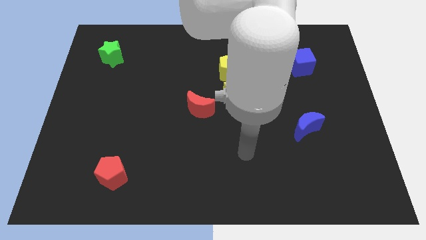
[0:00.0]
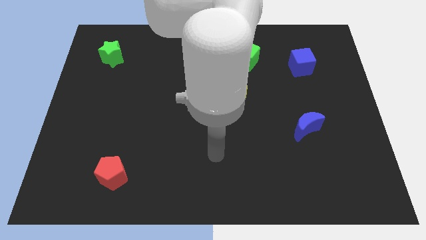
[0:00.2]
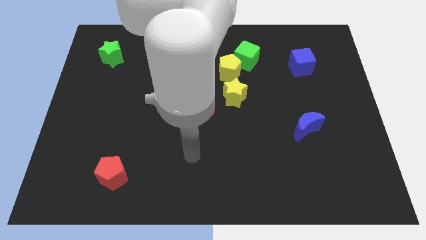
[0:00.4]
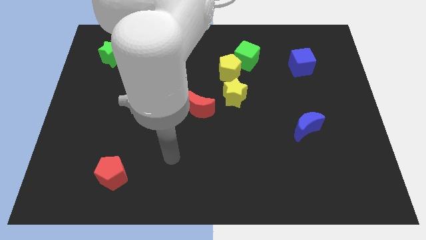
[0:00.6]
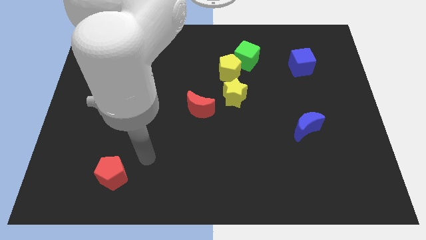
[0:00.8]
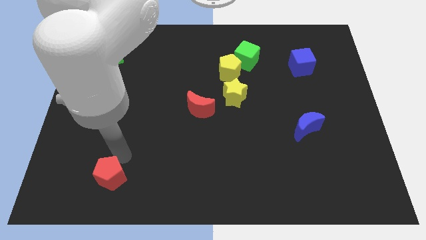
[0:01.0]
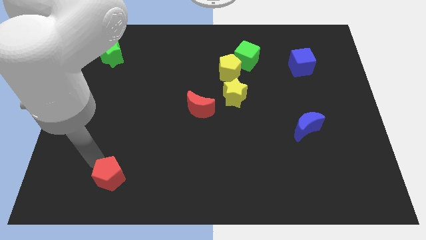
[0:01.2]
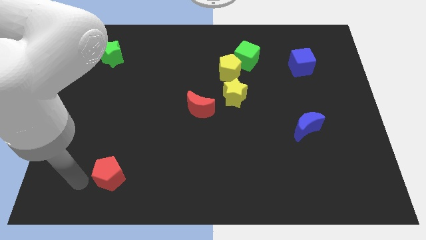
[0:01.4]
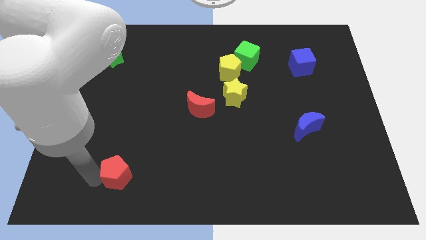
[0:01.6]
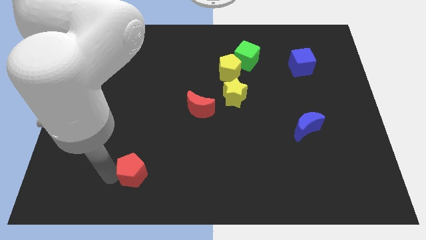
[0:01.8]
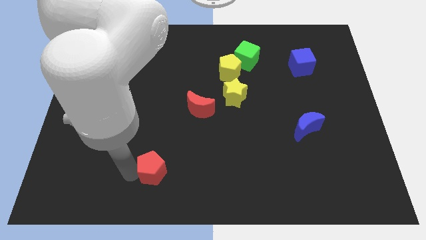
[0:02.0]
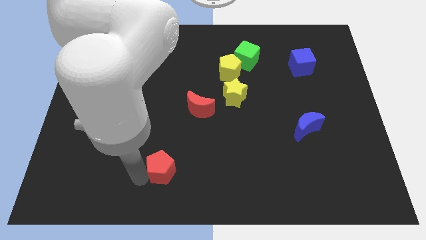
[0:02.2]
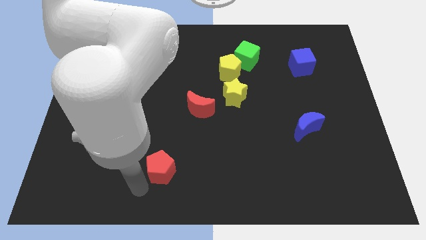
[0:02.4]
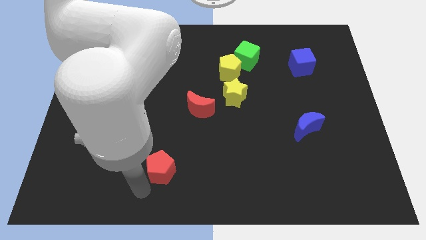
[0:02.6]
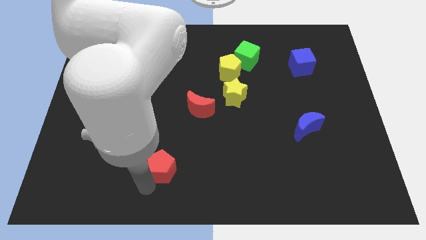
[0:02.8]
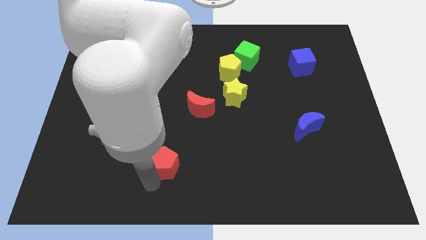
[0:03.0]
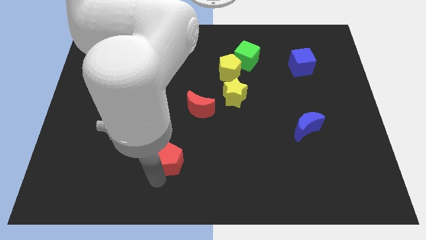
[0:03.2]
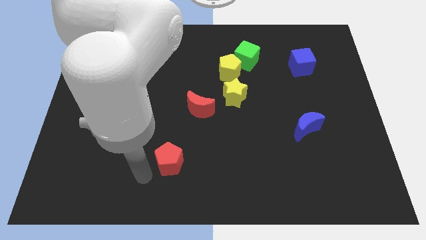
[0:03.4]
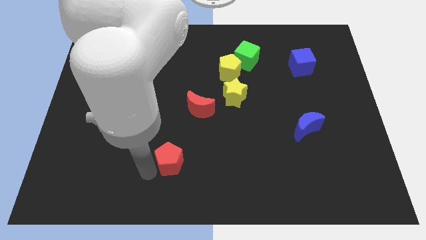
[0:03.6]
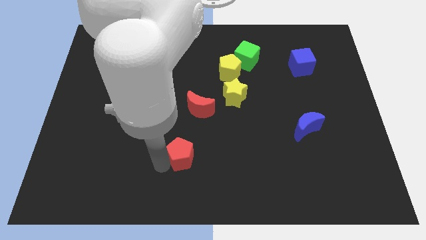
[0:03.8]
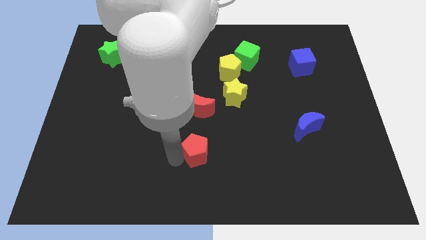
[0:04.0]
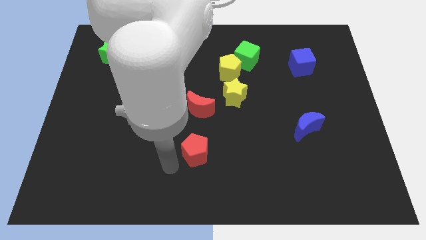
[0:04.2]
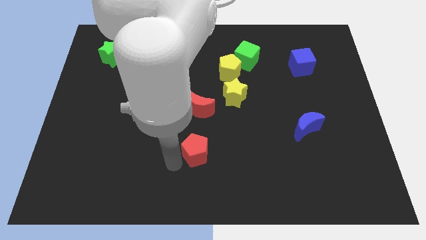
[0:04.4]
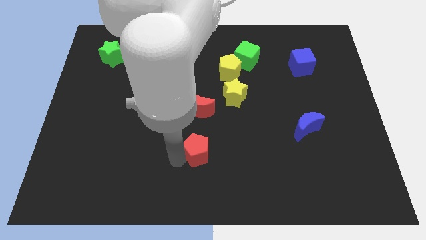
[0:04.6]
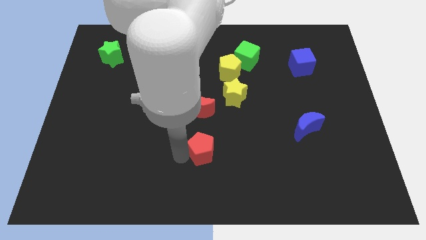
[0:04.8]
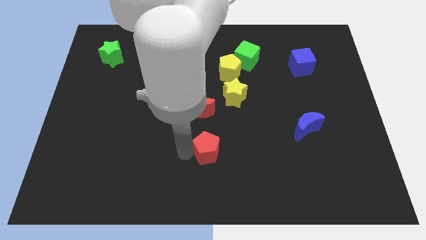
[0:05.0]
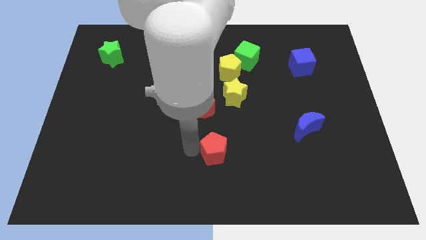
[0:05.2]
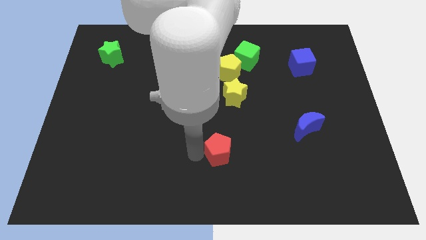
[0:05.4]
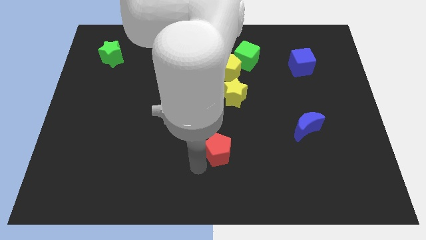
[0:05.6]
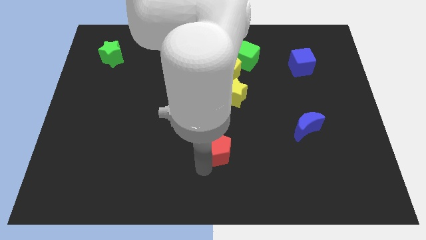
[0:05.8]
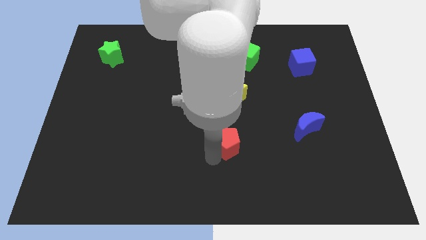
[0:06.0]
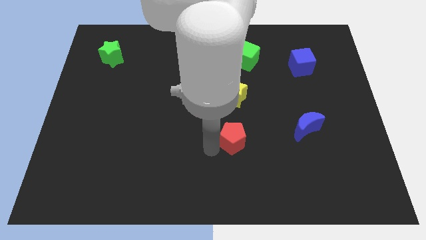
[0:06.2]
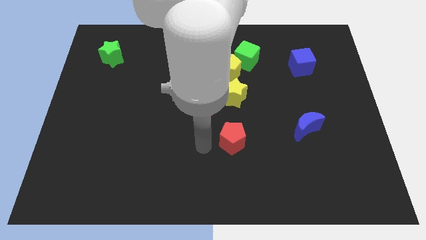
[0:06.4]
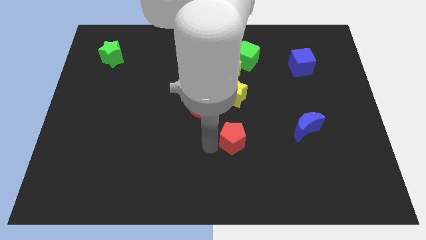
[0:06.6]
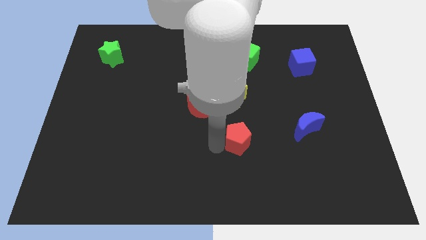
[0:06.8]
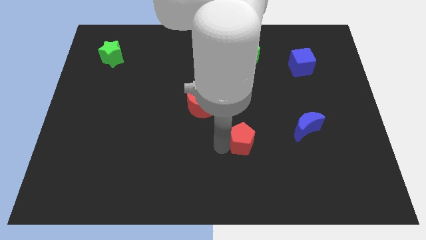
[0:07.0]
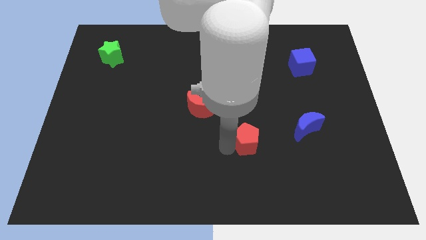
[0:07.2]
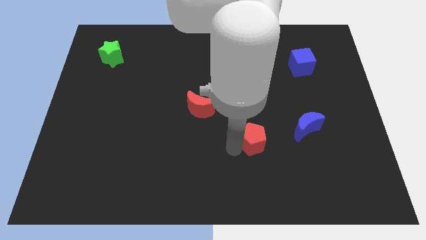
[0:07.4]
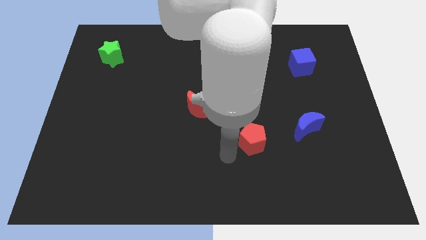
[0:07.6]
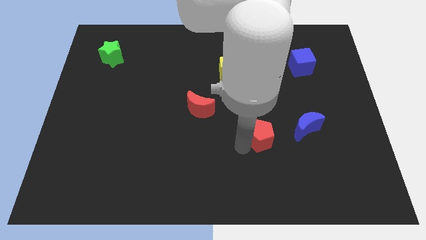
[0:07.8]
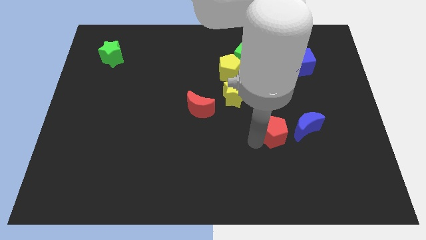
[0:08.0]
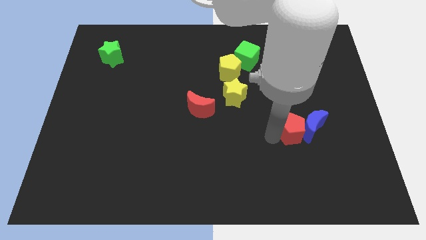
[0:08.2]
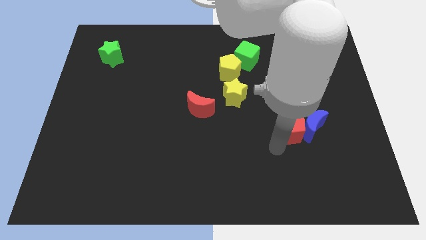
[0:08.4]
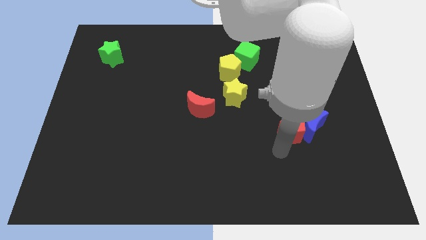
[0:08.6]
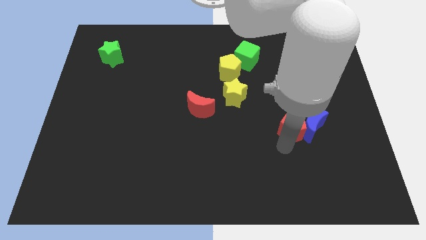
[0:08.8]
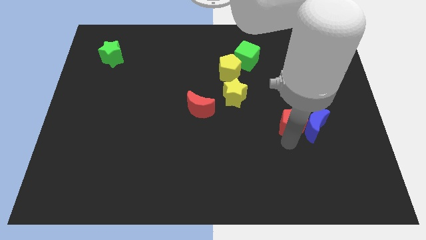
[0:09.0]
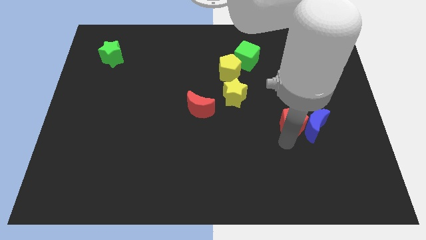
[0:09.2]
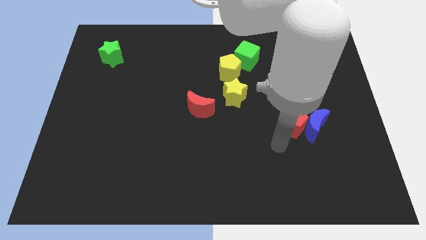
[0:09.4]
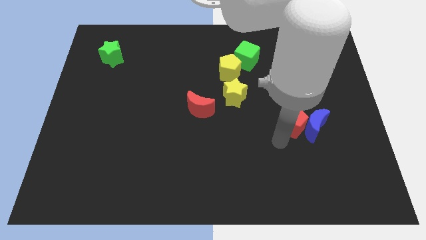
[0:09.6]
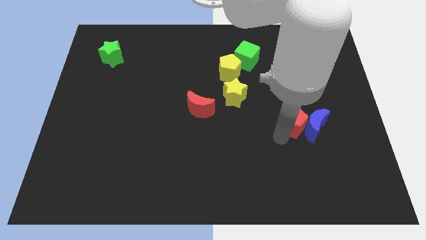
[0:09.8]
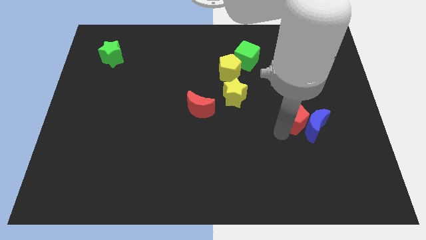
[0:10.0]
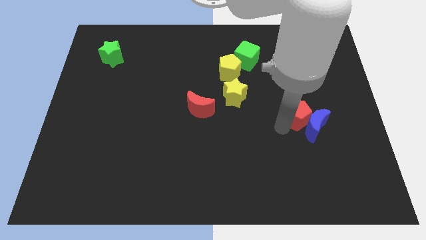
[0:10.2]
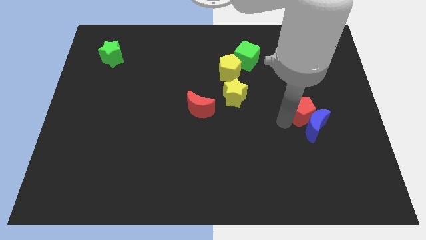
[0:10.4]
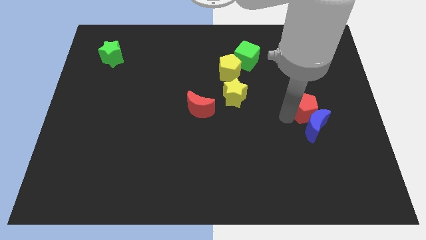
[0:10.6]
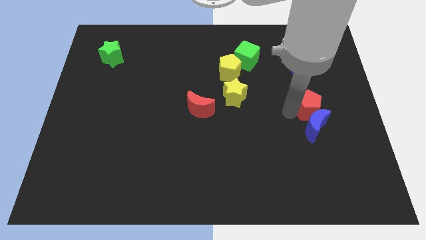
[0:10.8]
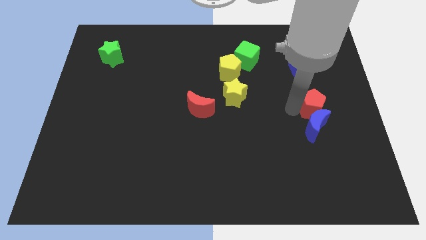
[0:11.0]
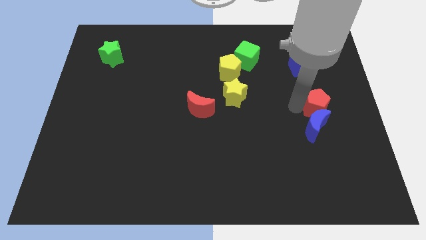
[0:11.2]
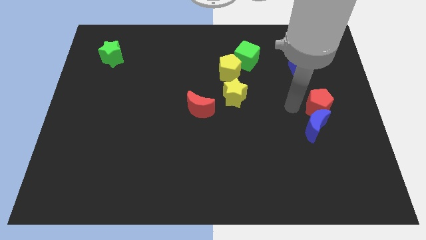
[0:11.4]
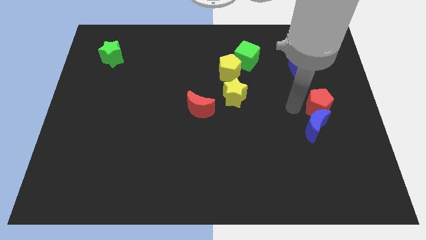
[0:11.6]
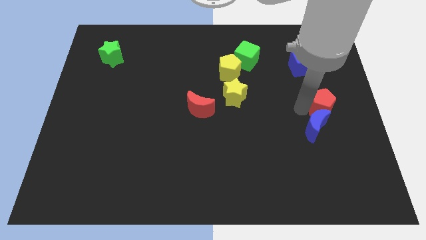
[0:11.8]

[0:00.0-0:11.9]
slide the red pentagon to the center right

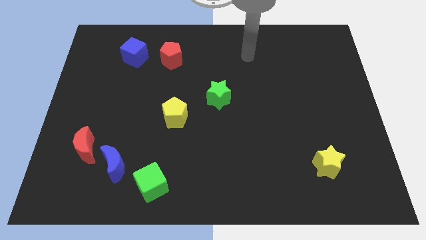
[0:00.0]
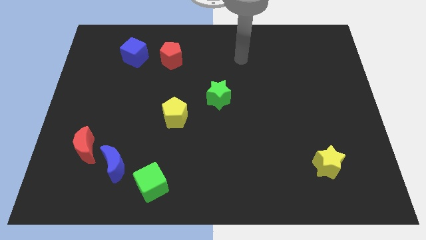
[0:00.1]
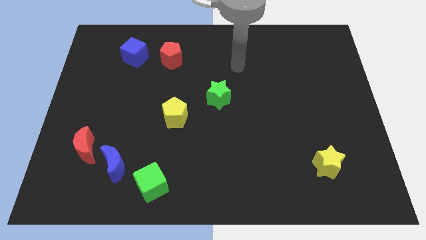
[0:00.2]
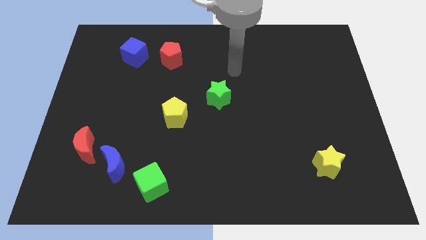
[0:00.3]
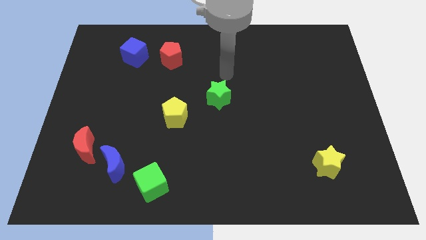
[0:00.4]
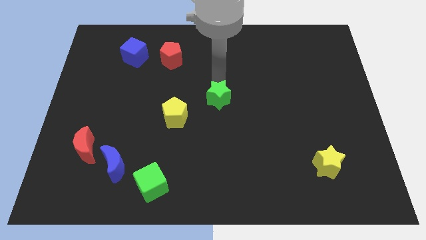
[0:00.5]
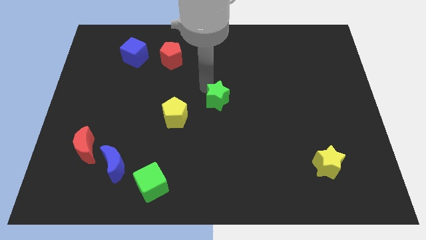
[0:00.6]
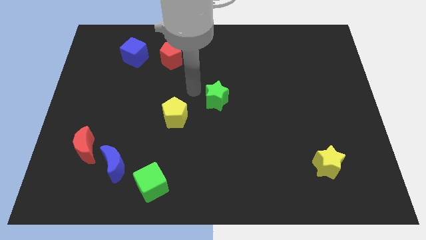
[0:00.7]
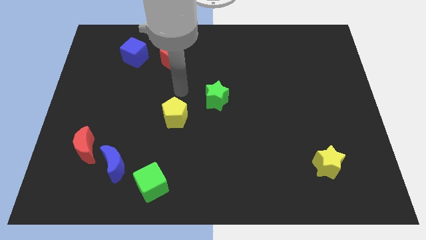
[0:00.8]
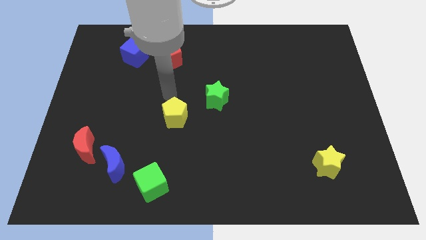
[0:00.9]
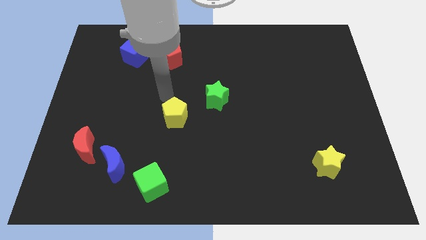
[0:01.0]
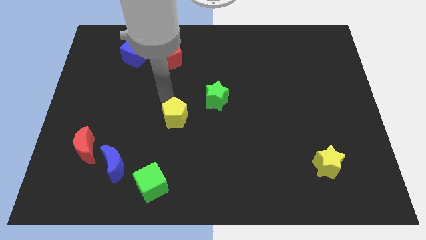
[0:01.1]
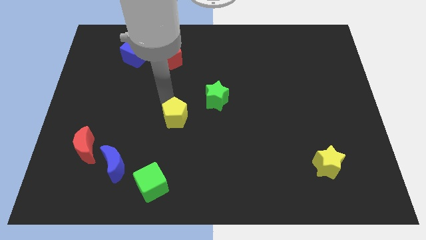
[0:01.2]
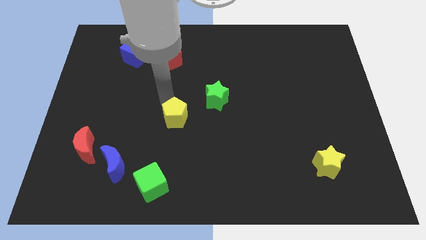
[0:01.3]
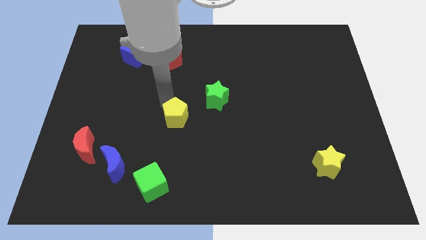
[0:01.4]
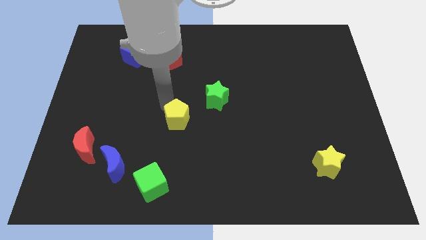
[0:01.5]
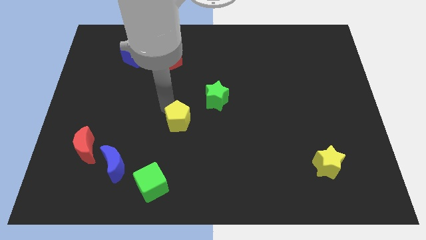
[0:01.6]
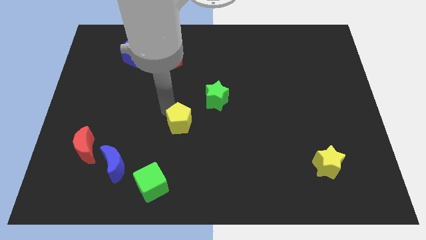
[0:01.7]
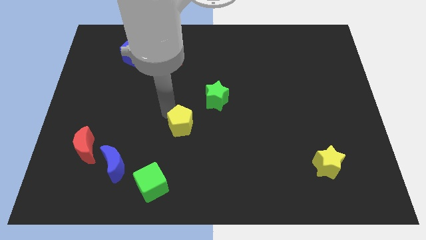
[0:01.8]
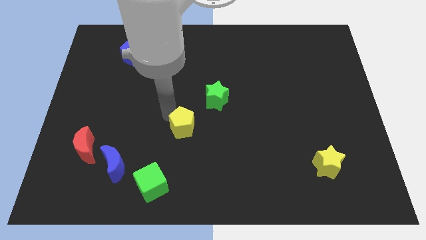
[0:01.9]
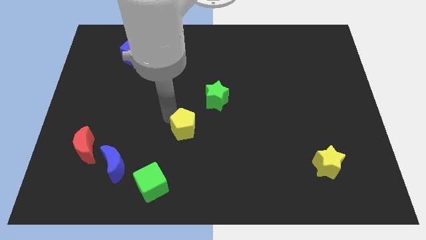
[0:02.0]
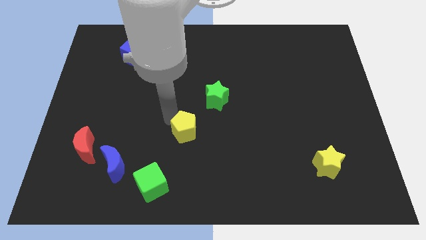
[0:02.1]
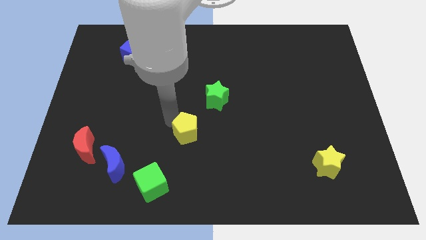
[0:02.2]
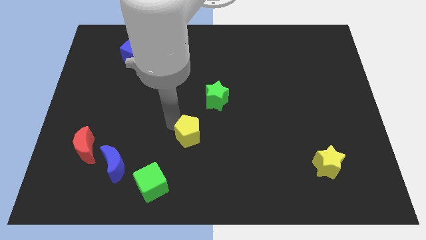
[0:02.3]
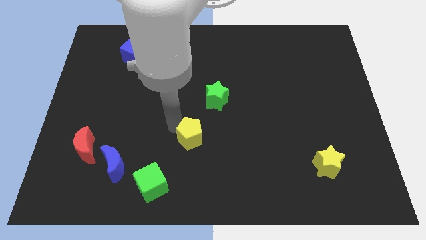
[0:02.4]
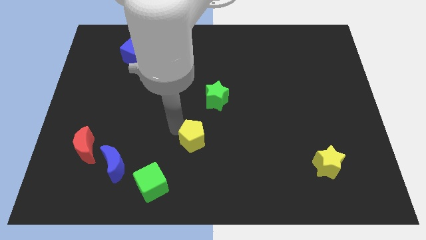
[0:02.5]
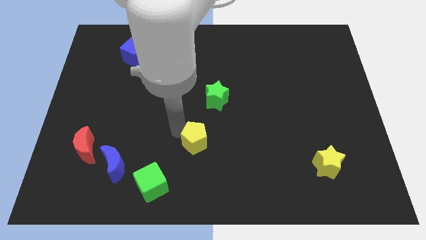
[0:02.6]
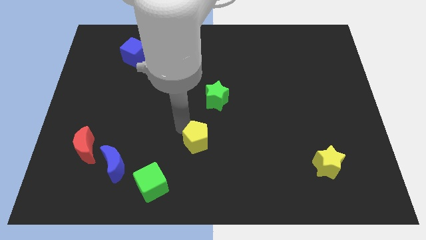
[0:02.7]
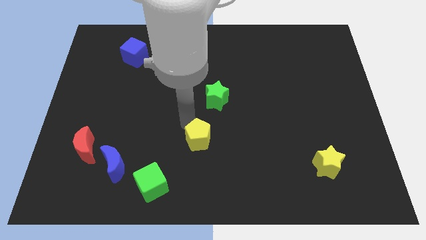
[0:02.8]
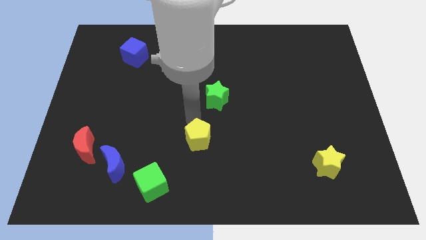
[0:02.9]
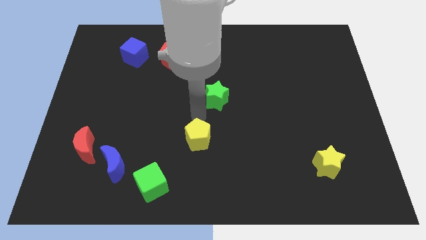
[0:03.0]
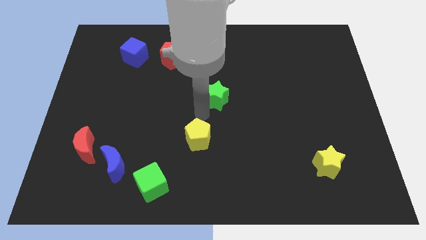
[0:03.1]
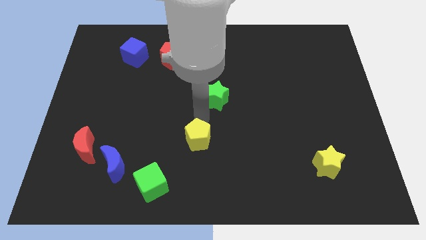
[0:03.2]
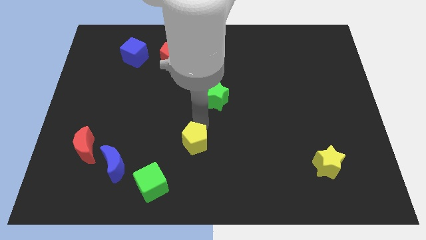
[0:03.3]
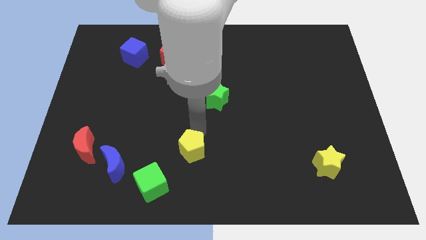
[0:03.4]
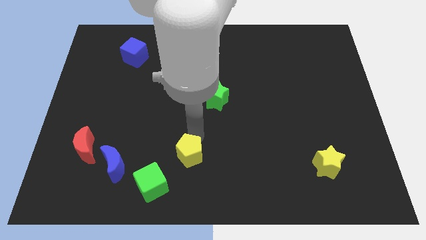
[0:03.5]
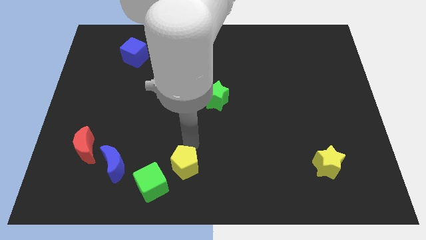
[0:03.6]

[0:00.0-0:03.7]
move the yellow pentagon to the bottom
